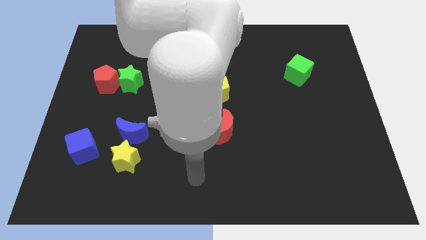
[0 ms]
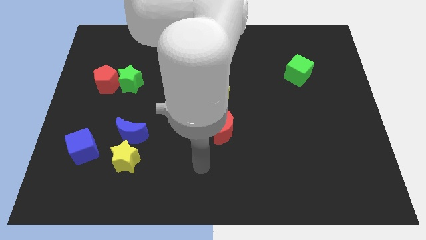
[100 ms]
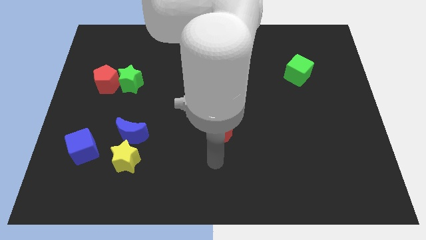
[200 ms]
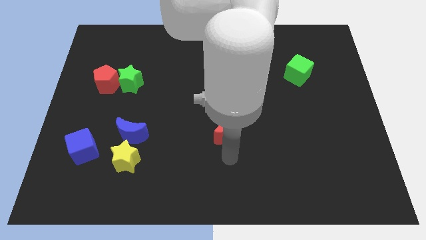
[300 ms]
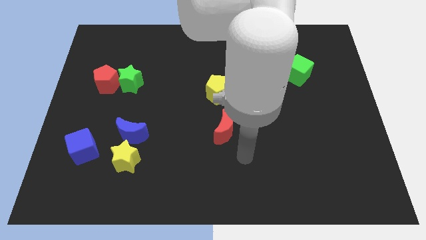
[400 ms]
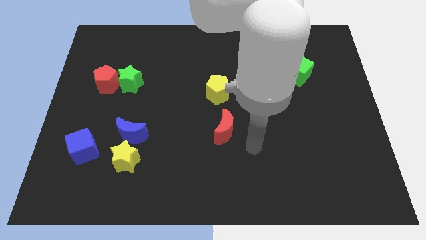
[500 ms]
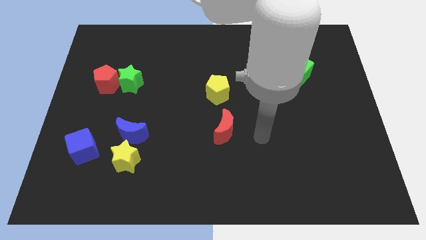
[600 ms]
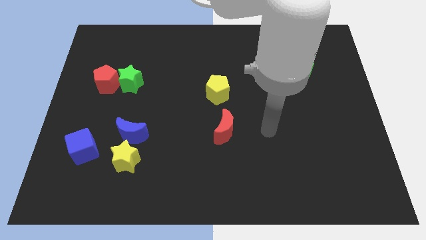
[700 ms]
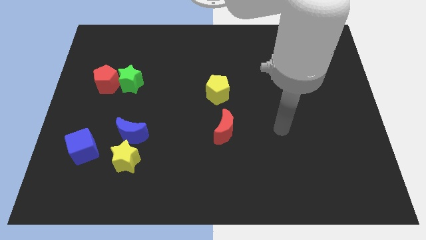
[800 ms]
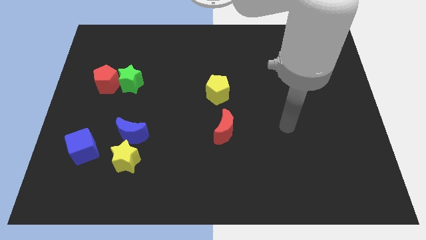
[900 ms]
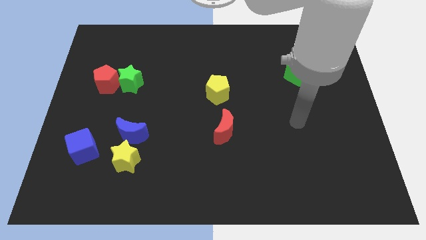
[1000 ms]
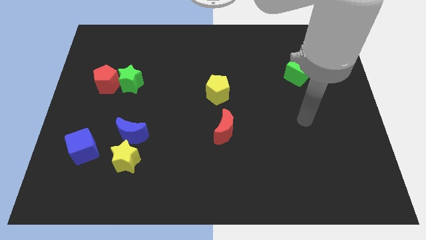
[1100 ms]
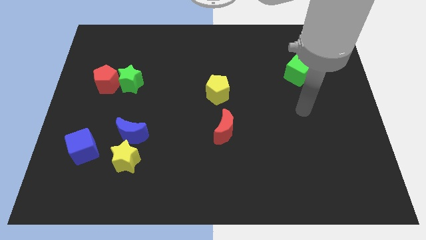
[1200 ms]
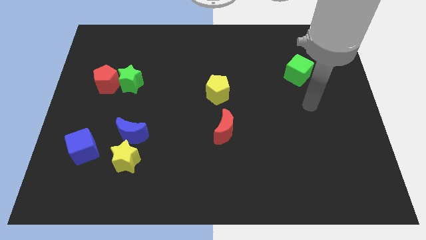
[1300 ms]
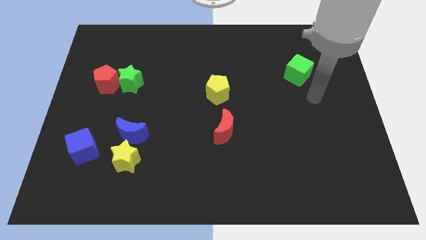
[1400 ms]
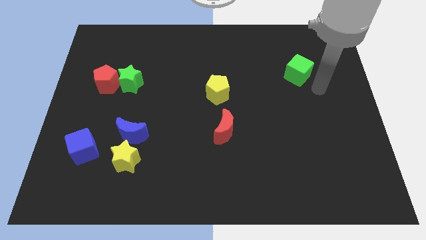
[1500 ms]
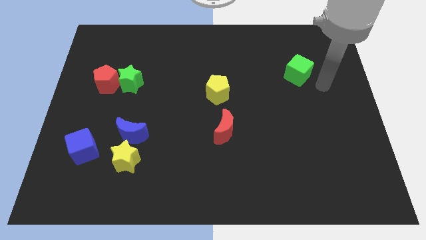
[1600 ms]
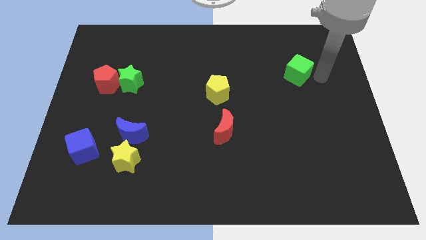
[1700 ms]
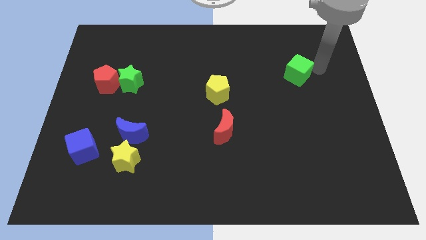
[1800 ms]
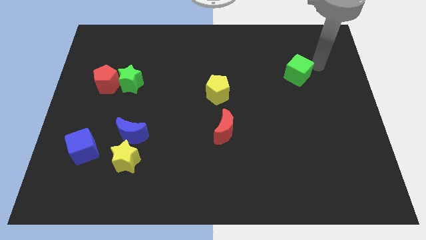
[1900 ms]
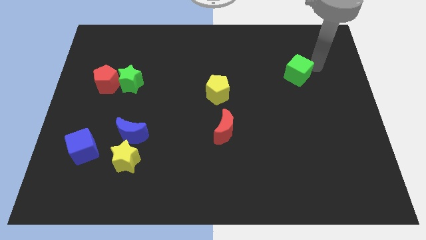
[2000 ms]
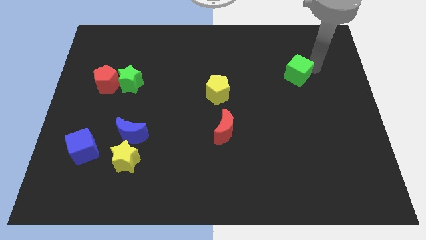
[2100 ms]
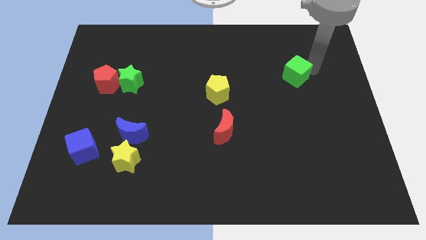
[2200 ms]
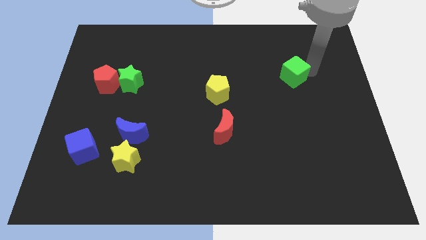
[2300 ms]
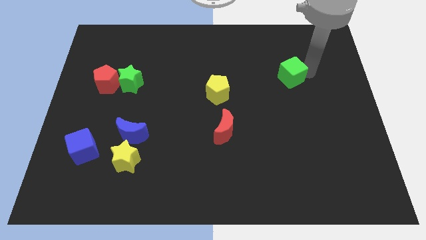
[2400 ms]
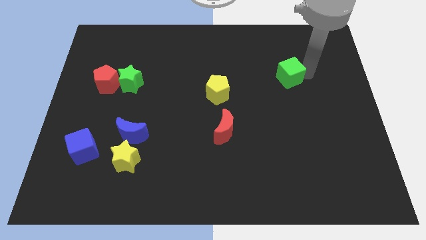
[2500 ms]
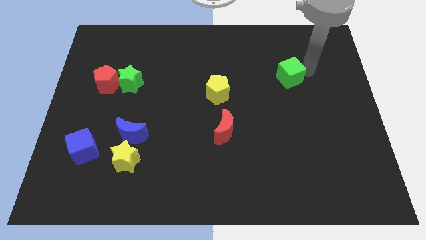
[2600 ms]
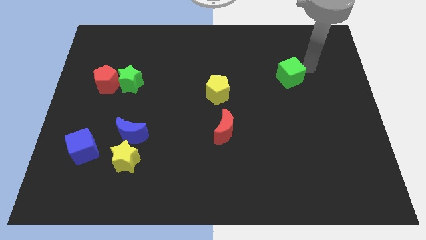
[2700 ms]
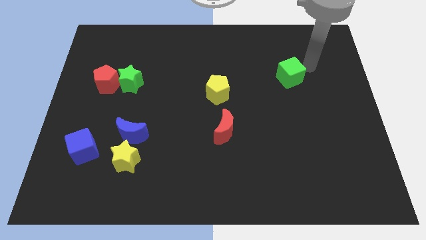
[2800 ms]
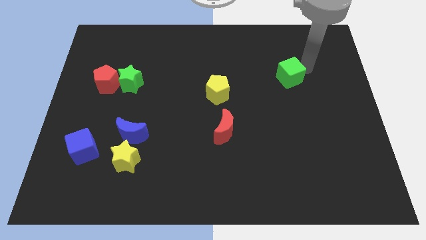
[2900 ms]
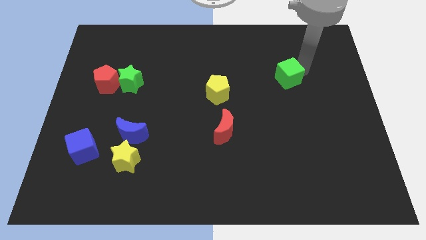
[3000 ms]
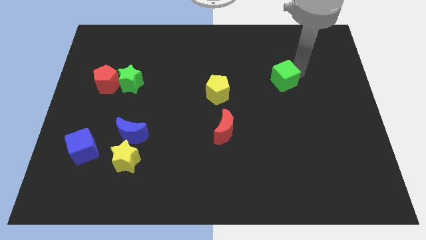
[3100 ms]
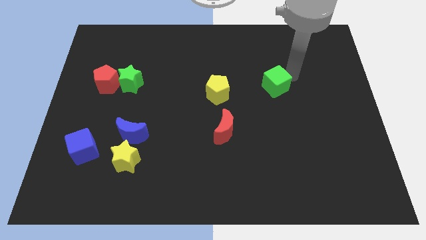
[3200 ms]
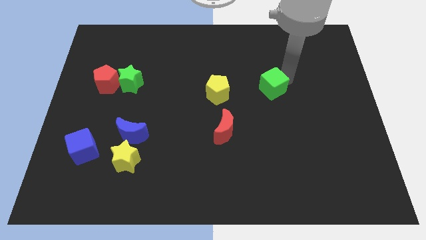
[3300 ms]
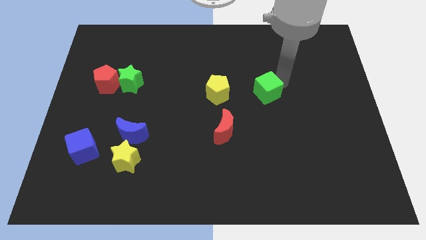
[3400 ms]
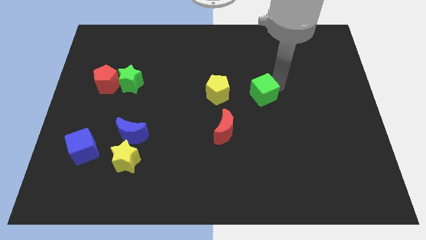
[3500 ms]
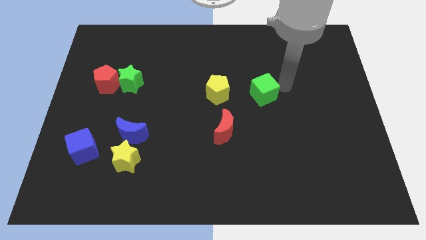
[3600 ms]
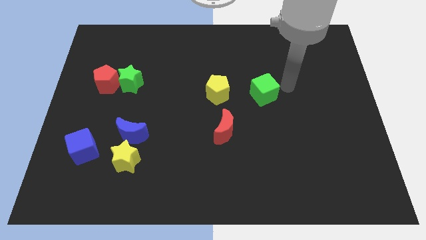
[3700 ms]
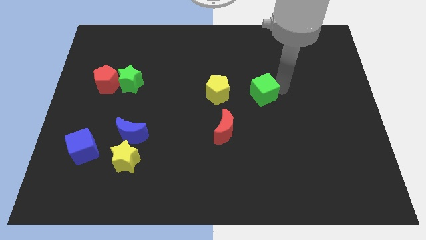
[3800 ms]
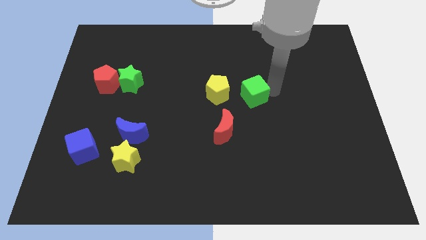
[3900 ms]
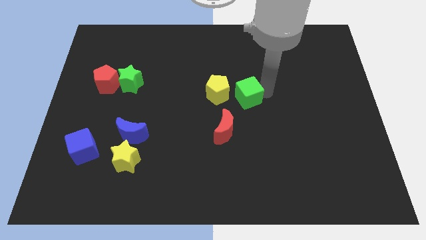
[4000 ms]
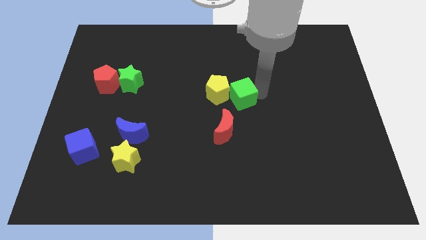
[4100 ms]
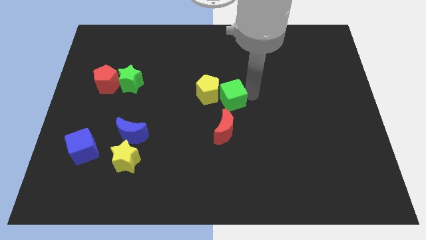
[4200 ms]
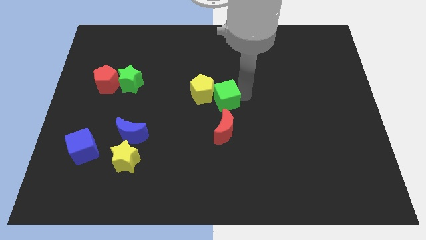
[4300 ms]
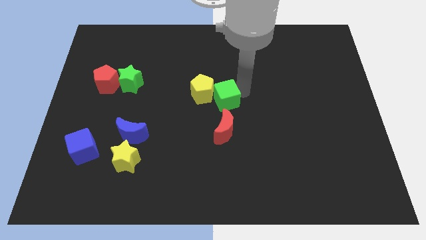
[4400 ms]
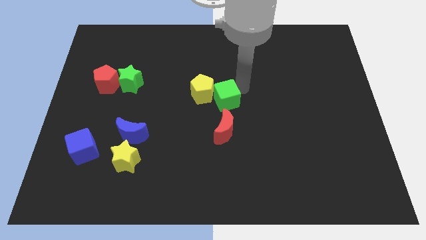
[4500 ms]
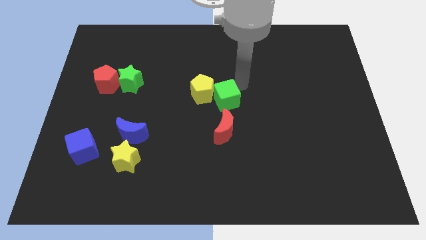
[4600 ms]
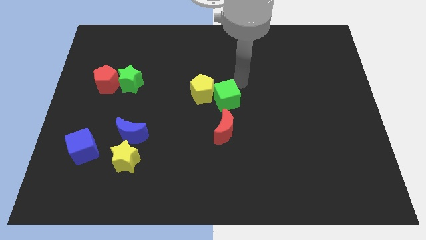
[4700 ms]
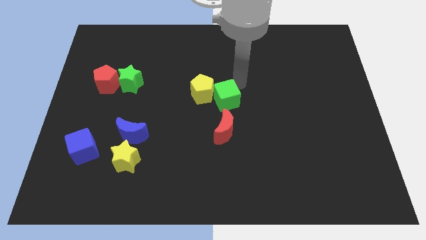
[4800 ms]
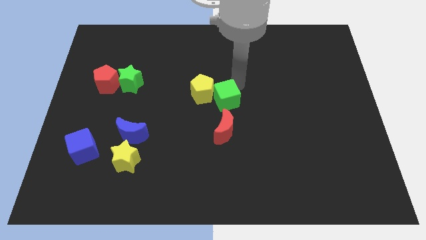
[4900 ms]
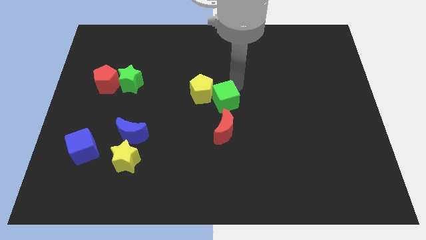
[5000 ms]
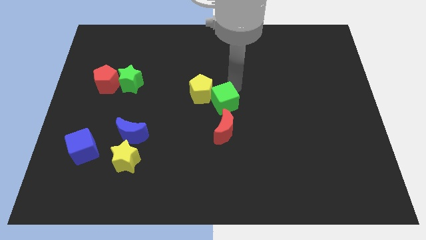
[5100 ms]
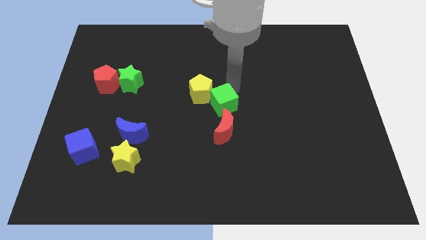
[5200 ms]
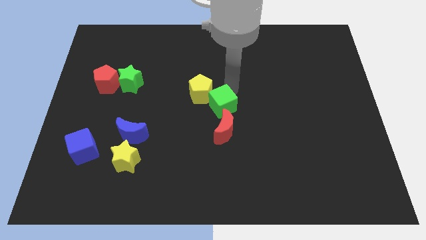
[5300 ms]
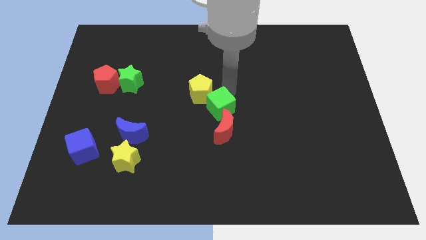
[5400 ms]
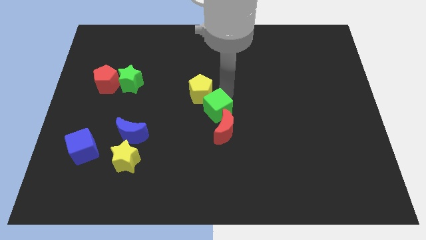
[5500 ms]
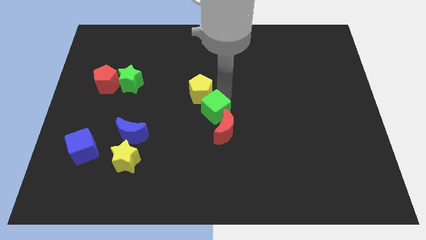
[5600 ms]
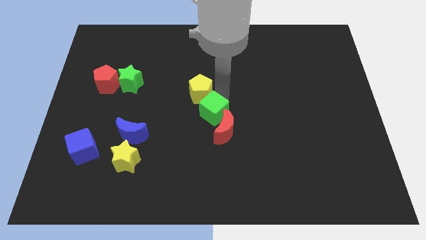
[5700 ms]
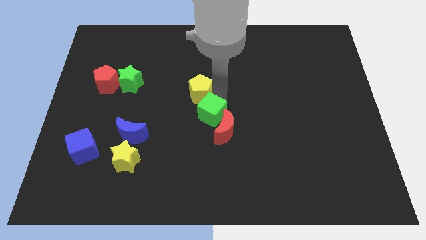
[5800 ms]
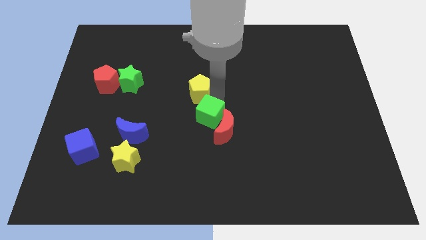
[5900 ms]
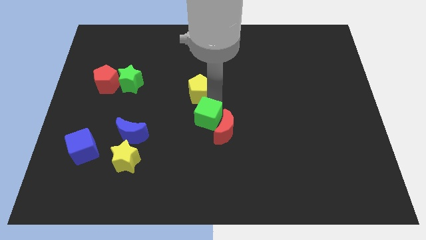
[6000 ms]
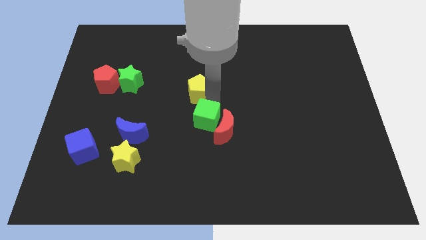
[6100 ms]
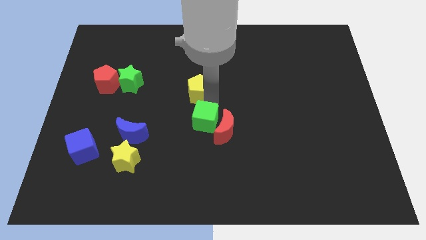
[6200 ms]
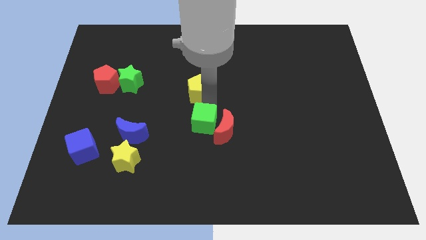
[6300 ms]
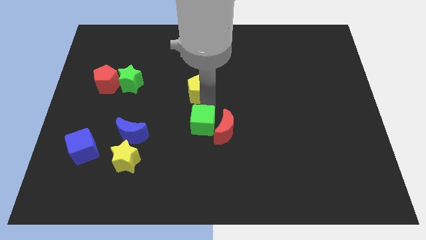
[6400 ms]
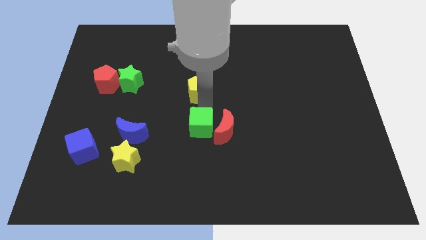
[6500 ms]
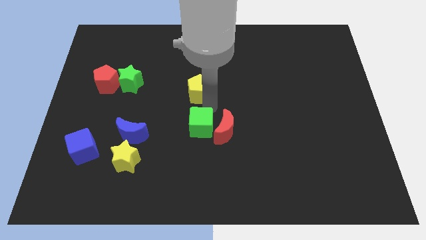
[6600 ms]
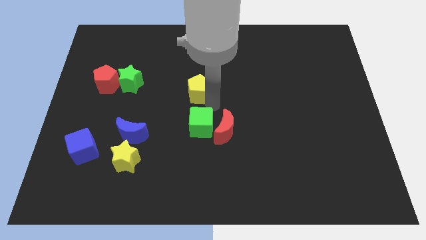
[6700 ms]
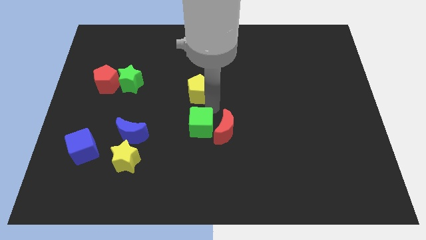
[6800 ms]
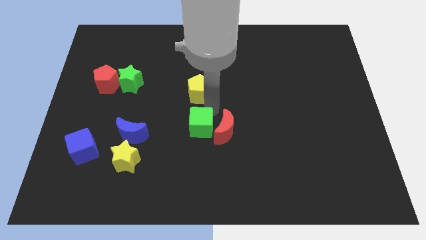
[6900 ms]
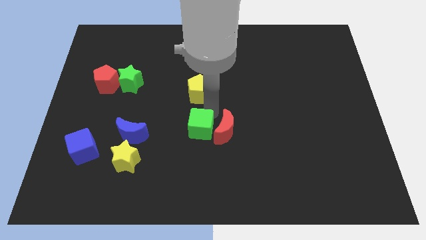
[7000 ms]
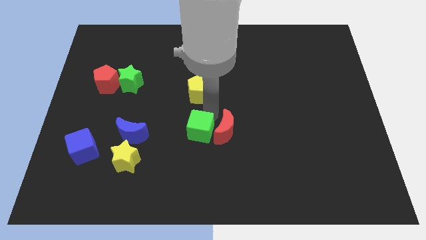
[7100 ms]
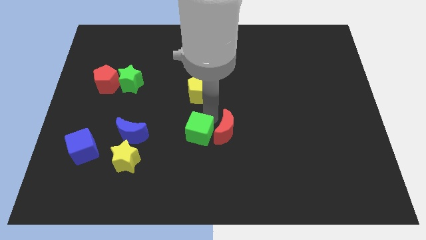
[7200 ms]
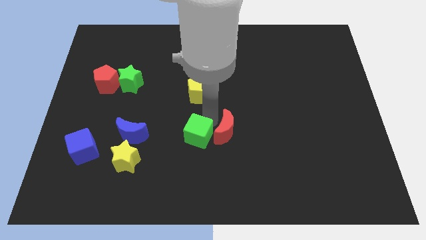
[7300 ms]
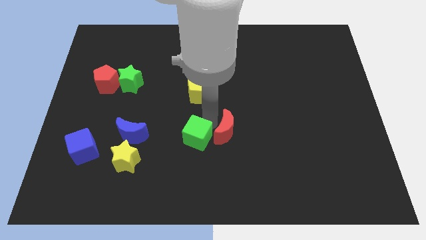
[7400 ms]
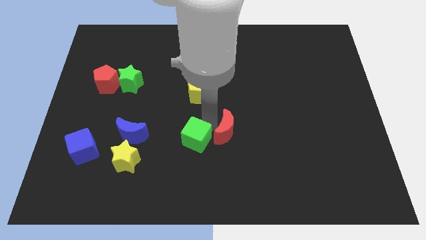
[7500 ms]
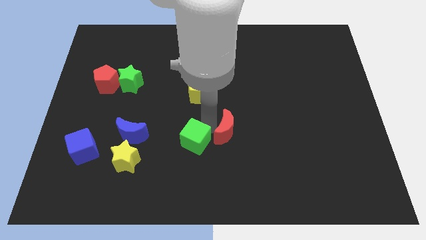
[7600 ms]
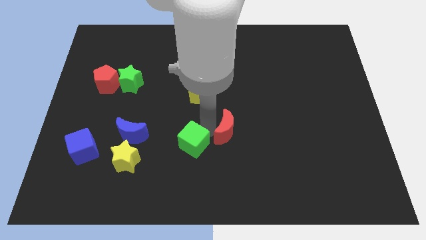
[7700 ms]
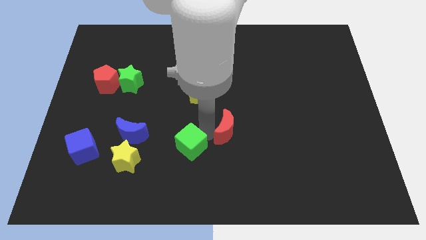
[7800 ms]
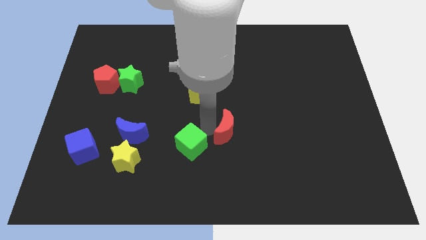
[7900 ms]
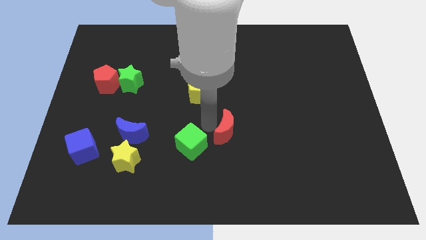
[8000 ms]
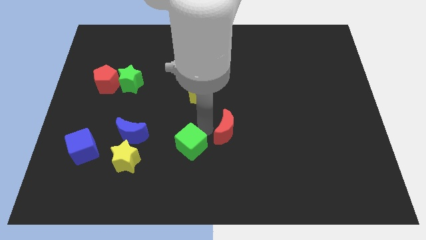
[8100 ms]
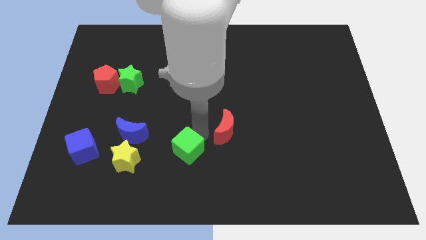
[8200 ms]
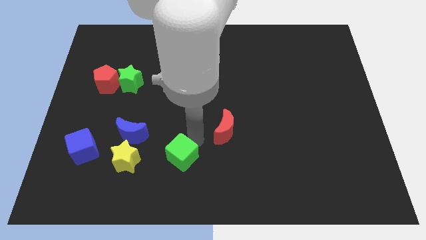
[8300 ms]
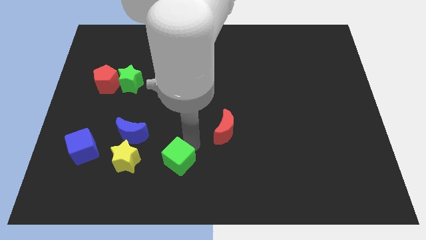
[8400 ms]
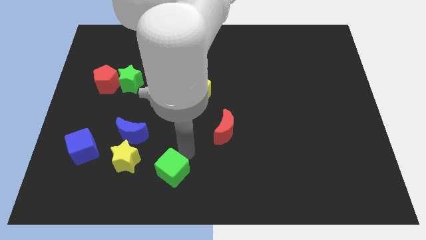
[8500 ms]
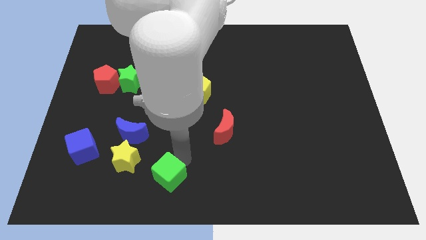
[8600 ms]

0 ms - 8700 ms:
move the green cube diagonally down and to the right of the yellow star
